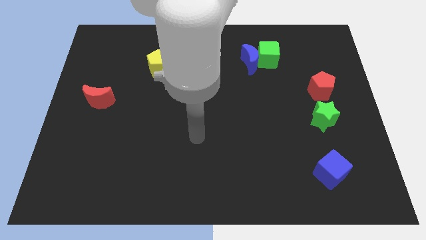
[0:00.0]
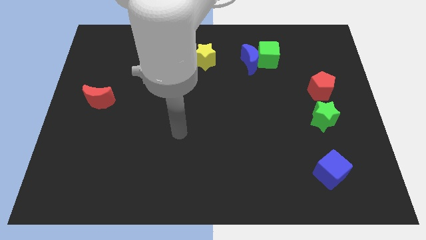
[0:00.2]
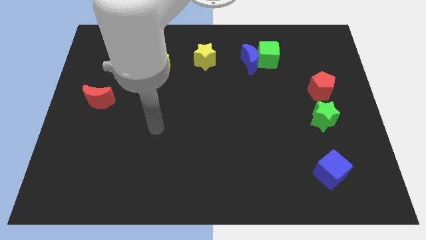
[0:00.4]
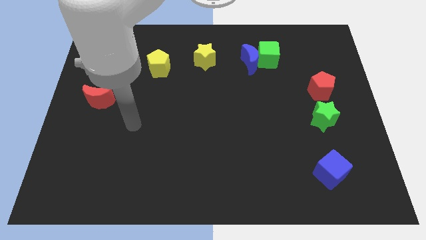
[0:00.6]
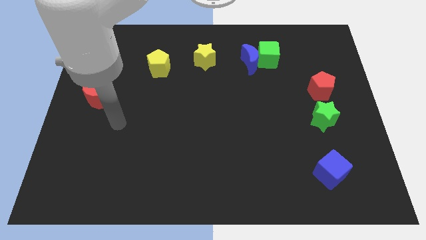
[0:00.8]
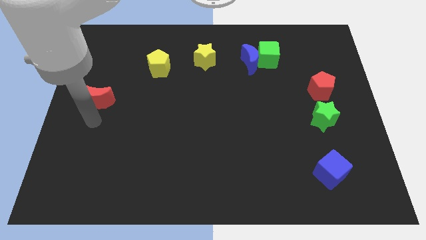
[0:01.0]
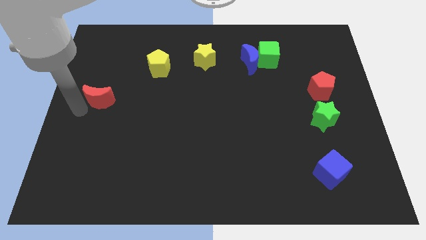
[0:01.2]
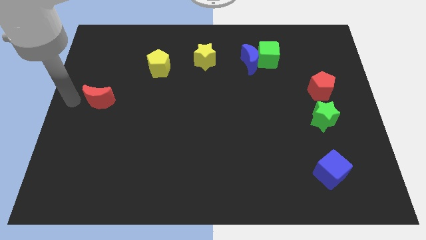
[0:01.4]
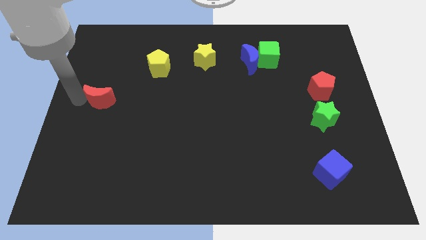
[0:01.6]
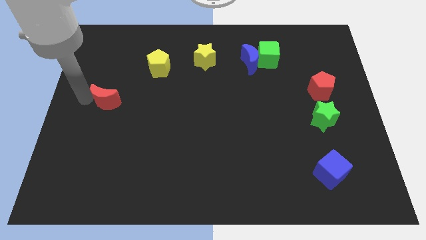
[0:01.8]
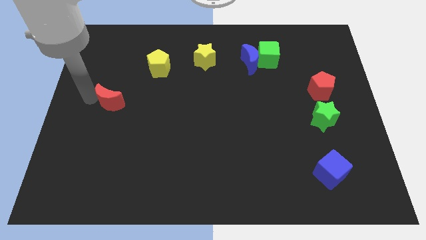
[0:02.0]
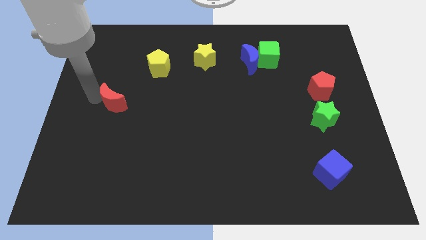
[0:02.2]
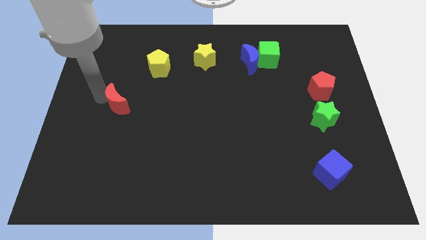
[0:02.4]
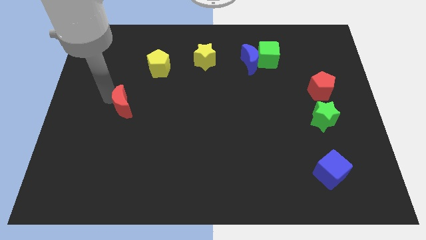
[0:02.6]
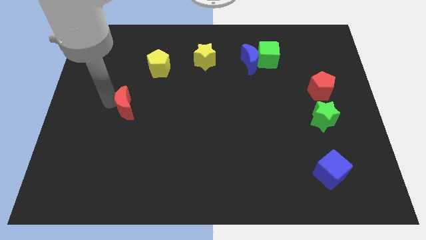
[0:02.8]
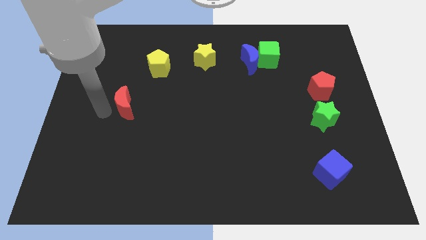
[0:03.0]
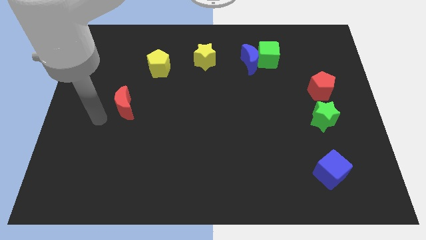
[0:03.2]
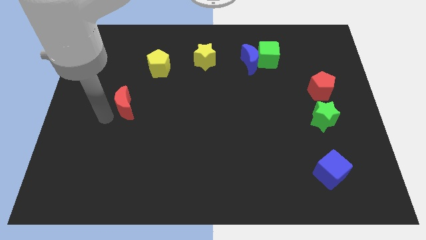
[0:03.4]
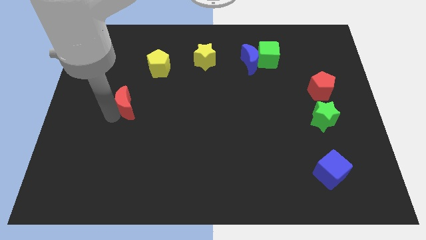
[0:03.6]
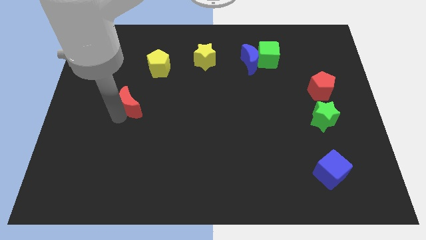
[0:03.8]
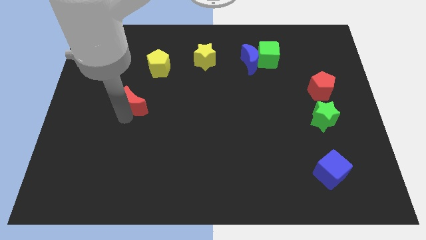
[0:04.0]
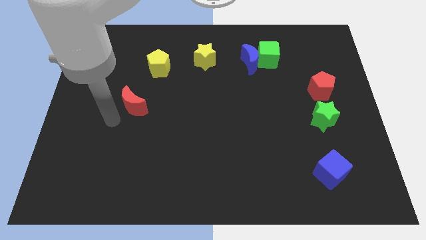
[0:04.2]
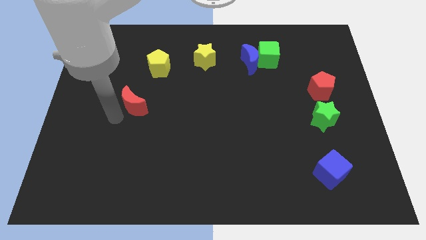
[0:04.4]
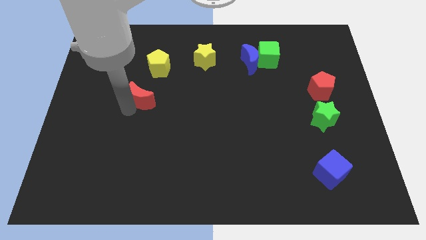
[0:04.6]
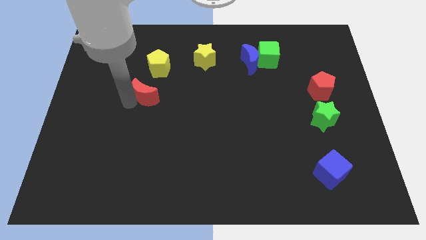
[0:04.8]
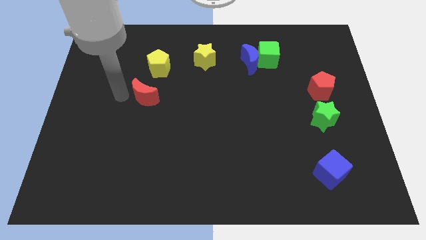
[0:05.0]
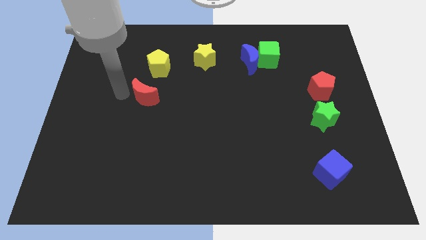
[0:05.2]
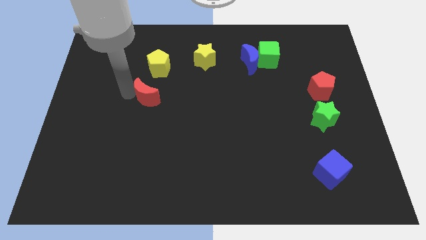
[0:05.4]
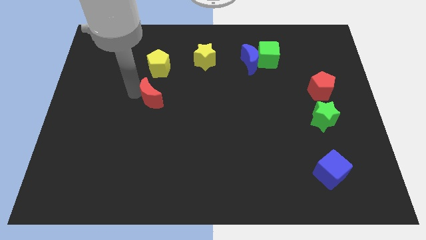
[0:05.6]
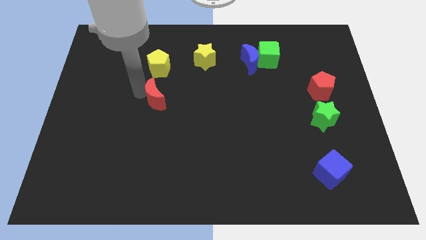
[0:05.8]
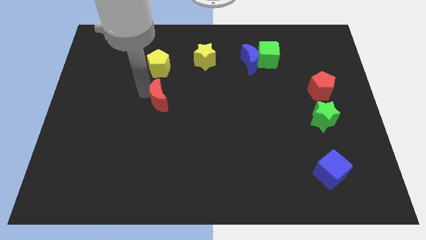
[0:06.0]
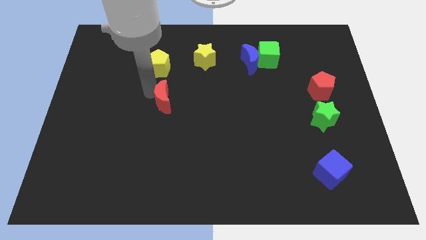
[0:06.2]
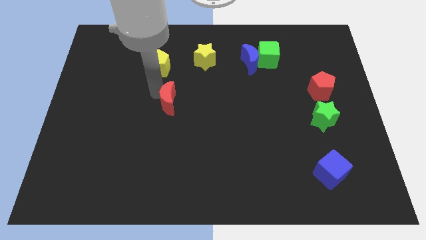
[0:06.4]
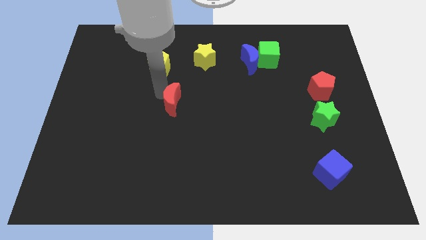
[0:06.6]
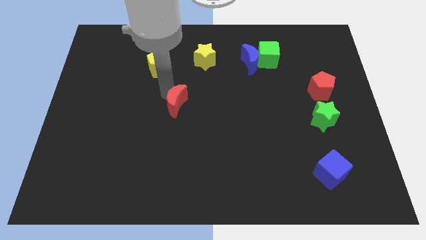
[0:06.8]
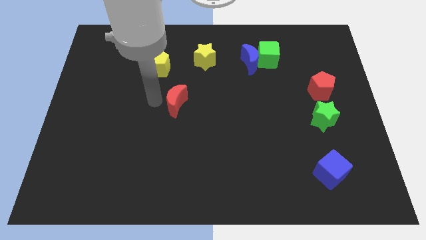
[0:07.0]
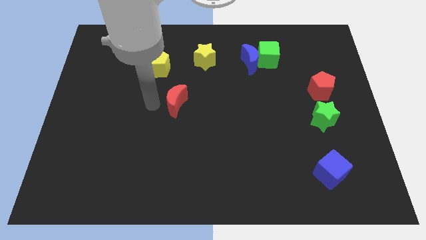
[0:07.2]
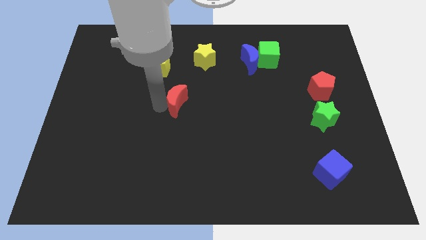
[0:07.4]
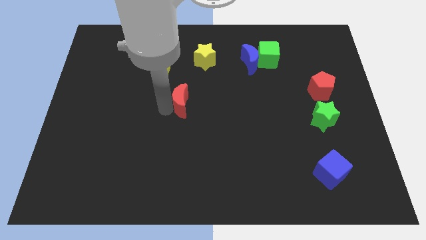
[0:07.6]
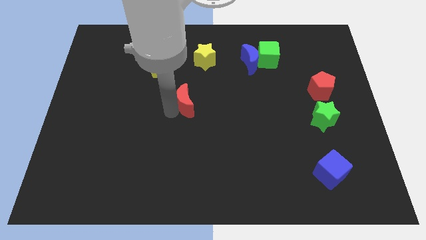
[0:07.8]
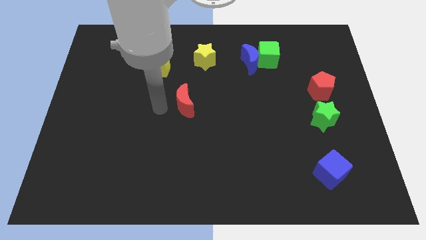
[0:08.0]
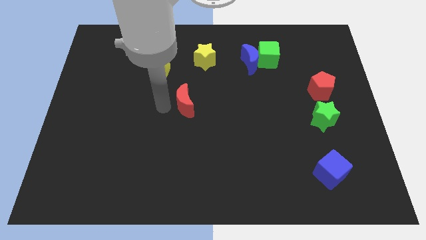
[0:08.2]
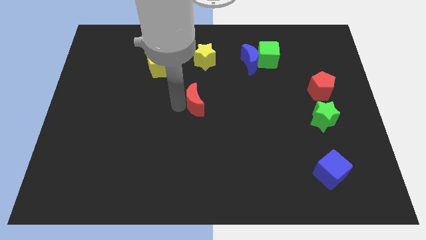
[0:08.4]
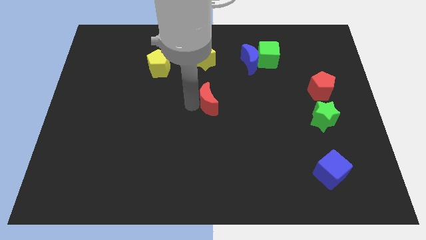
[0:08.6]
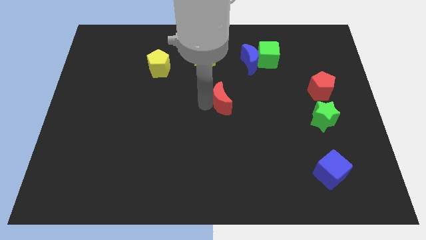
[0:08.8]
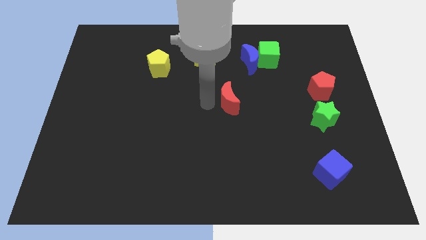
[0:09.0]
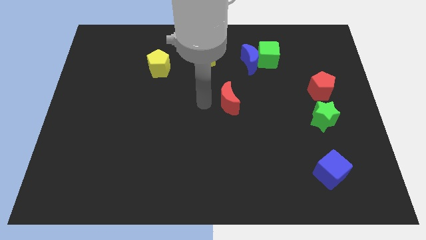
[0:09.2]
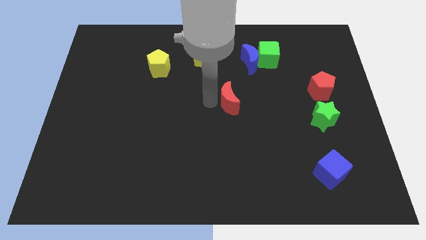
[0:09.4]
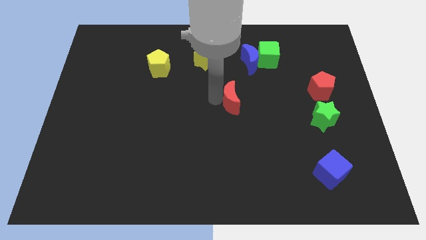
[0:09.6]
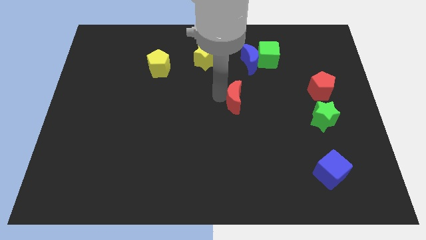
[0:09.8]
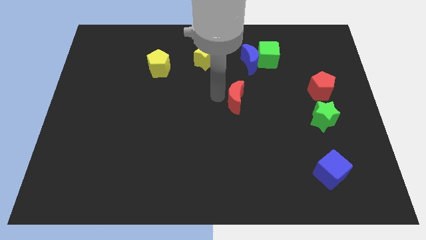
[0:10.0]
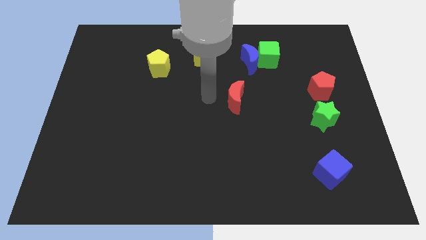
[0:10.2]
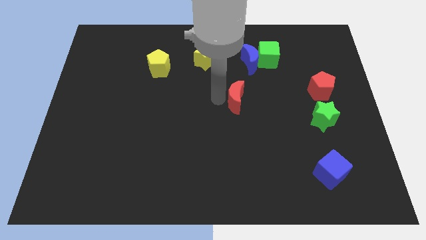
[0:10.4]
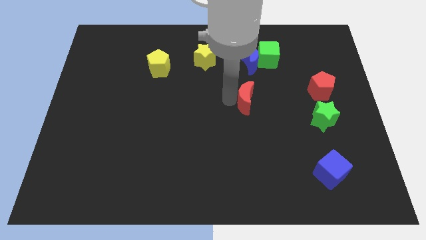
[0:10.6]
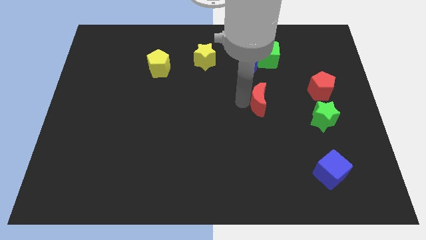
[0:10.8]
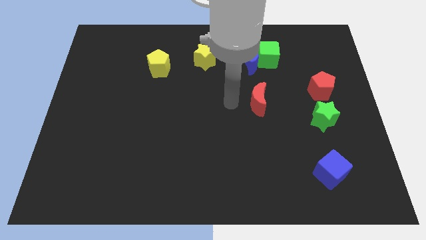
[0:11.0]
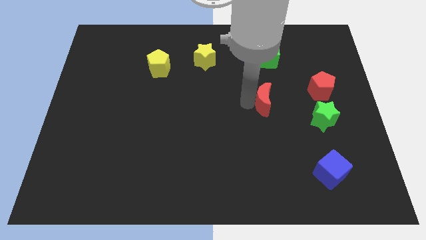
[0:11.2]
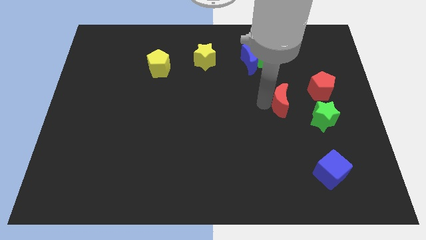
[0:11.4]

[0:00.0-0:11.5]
move the red moon to the top left of the green star

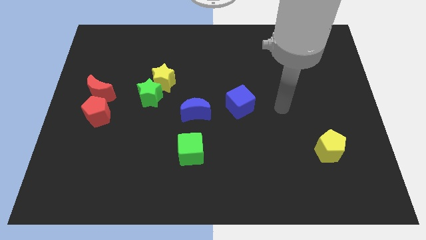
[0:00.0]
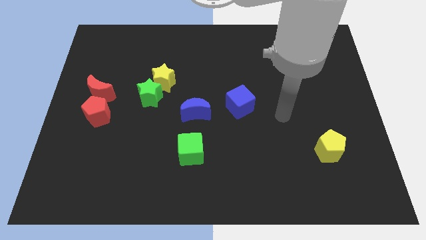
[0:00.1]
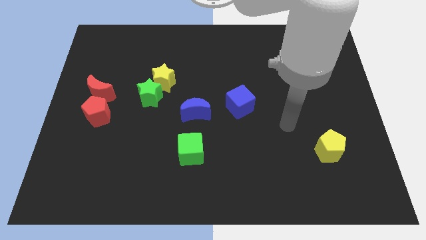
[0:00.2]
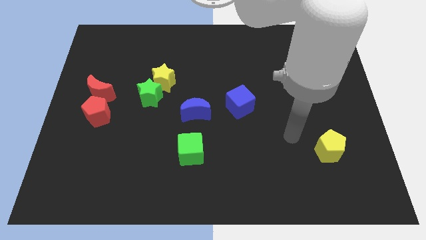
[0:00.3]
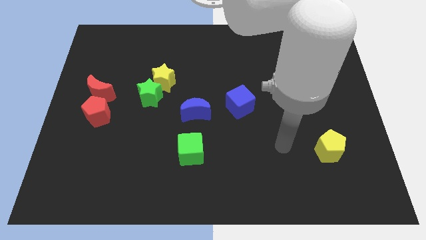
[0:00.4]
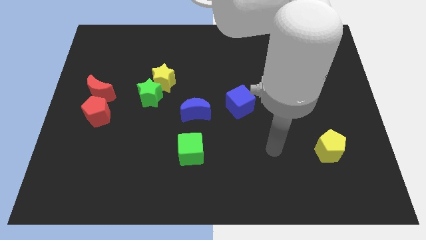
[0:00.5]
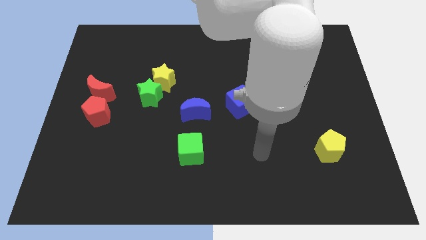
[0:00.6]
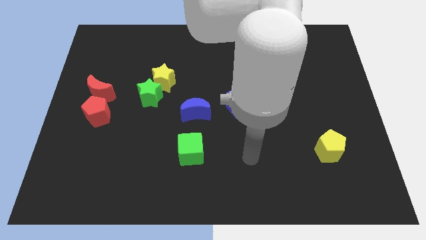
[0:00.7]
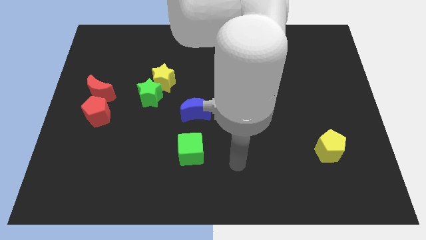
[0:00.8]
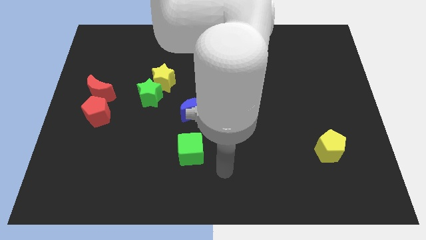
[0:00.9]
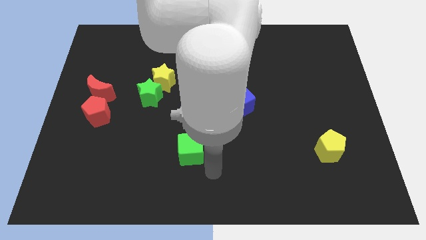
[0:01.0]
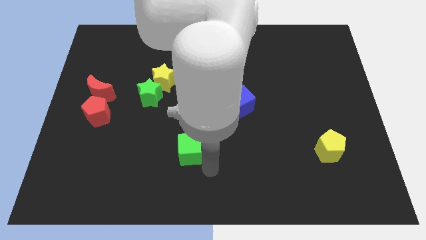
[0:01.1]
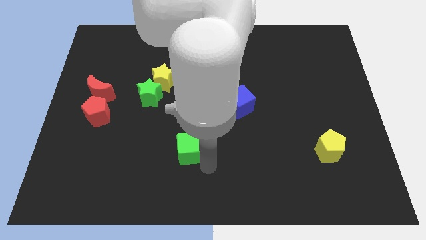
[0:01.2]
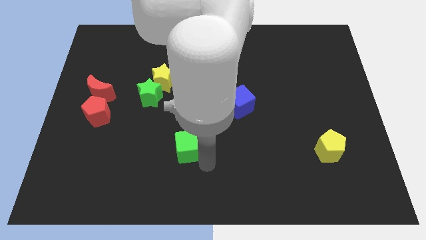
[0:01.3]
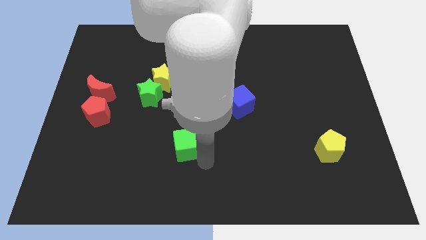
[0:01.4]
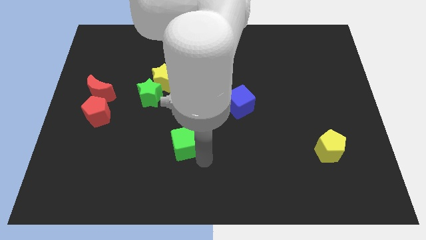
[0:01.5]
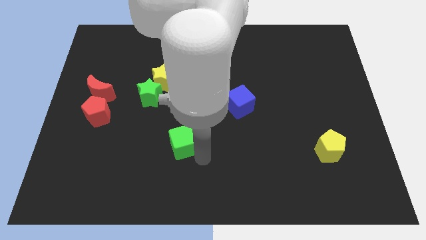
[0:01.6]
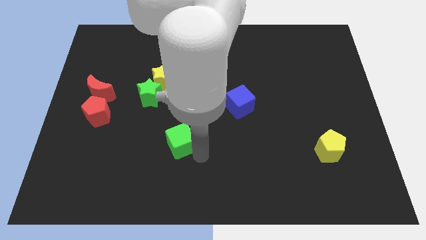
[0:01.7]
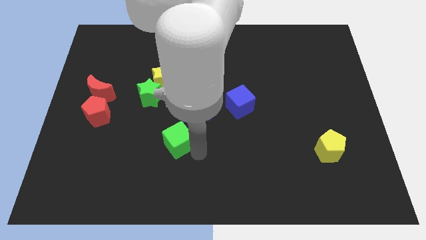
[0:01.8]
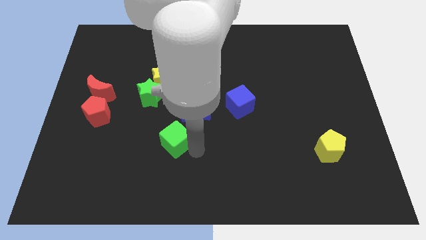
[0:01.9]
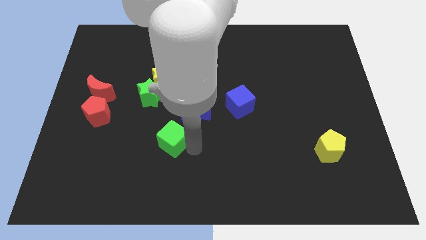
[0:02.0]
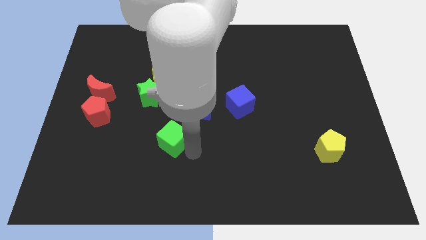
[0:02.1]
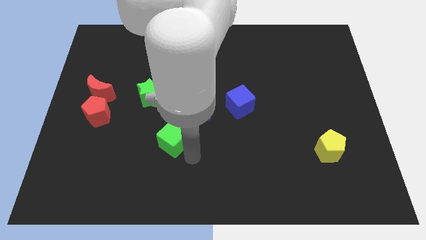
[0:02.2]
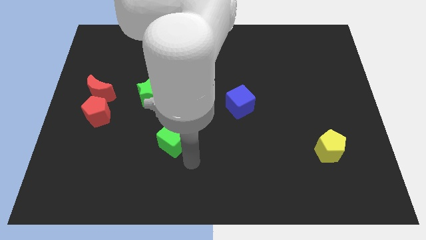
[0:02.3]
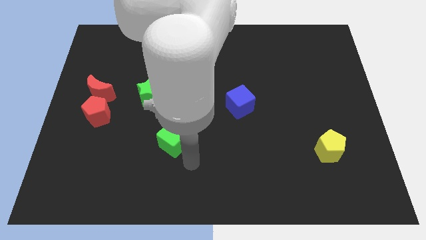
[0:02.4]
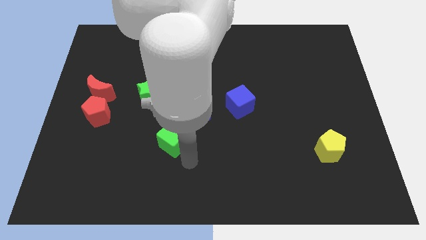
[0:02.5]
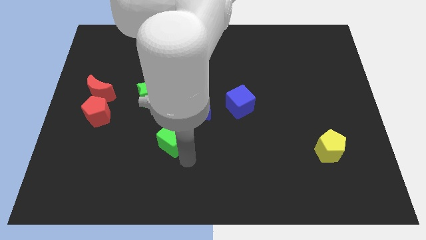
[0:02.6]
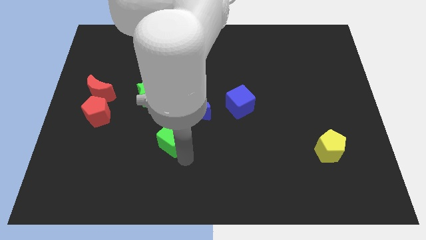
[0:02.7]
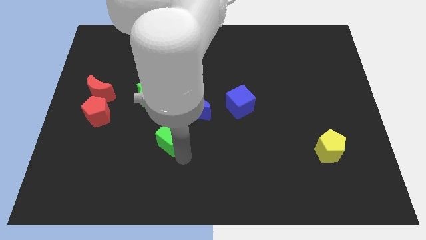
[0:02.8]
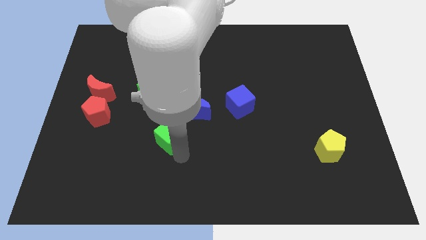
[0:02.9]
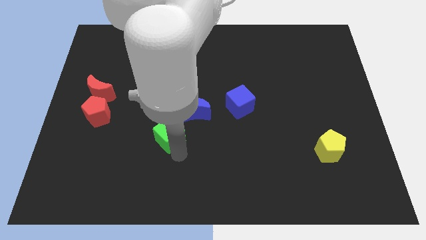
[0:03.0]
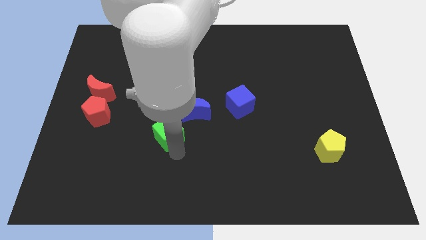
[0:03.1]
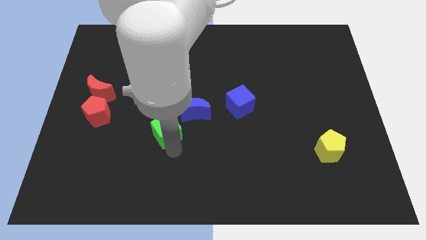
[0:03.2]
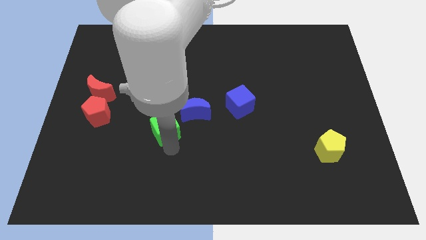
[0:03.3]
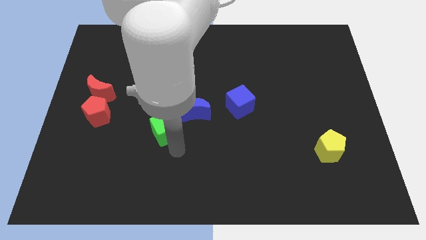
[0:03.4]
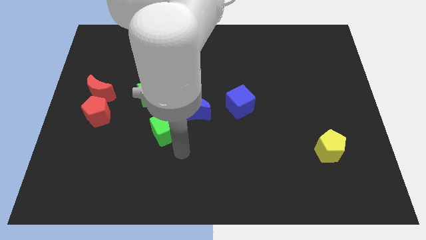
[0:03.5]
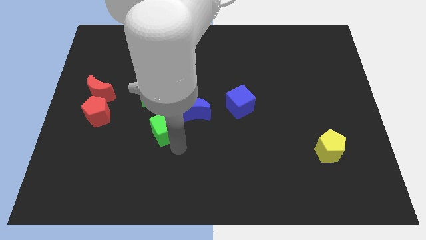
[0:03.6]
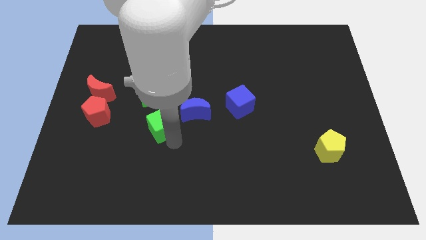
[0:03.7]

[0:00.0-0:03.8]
move the green cube to the left side of the blue moon
